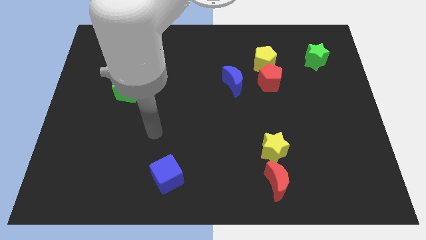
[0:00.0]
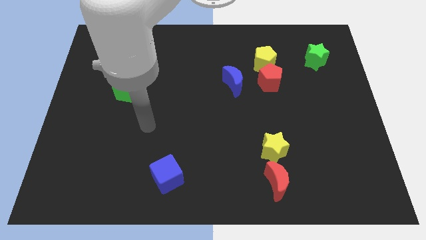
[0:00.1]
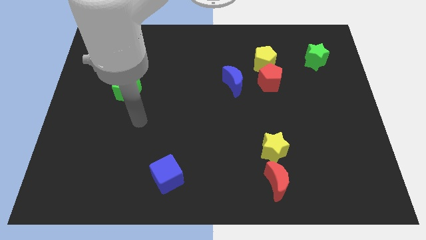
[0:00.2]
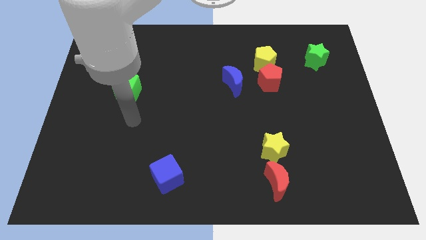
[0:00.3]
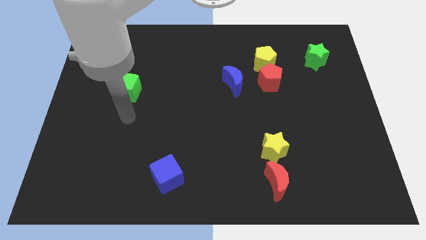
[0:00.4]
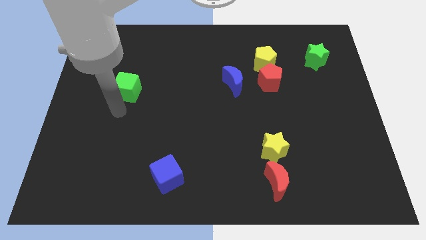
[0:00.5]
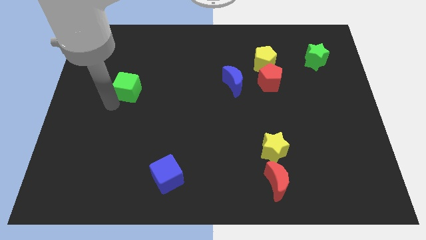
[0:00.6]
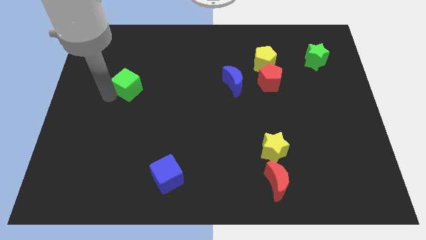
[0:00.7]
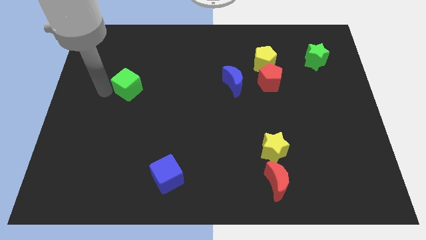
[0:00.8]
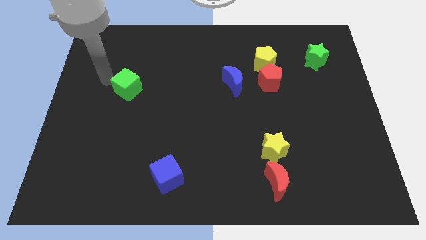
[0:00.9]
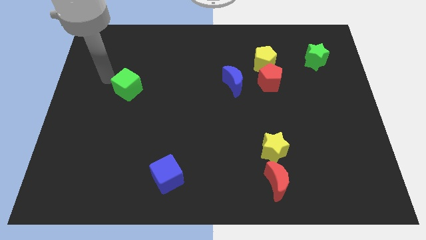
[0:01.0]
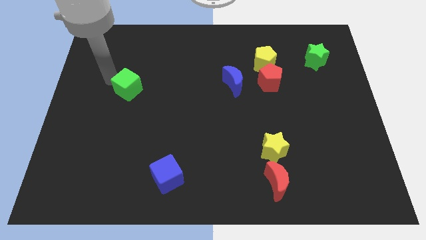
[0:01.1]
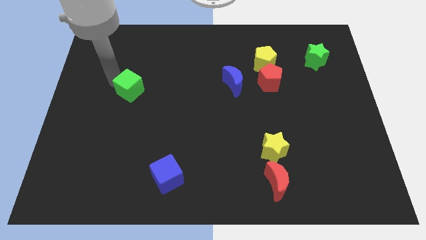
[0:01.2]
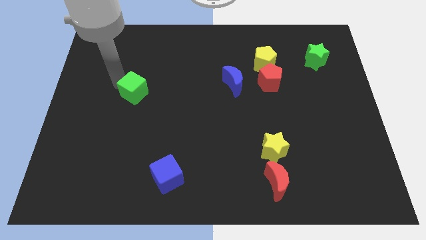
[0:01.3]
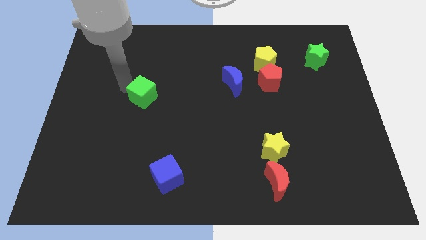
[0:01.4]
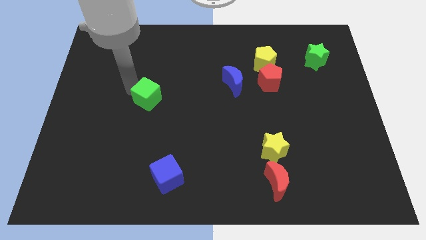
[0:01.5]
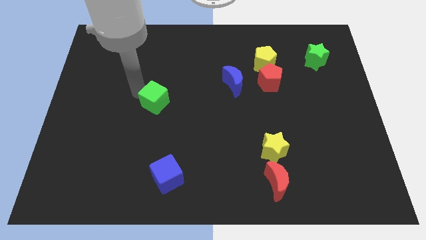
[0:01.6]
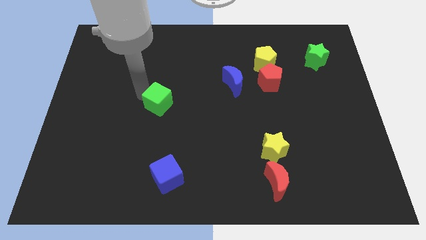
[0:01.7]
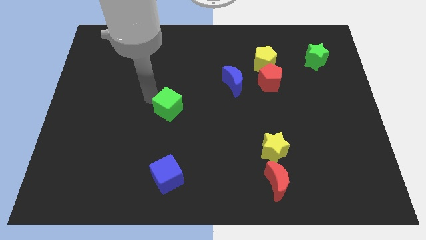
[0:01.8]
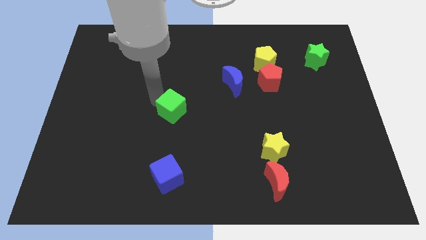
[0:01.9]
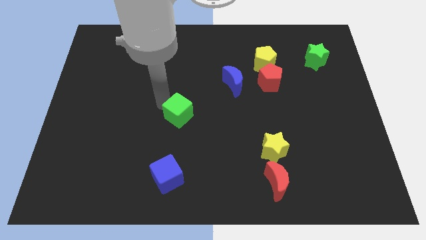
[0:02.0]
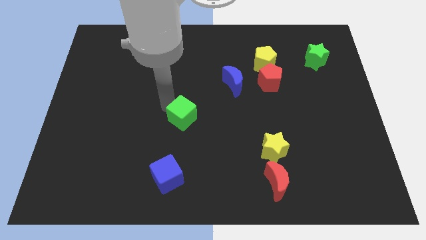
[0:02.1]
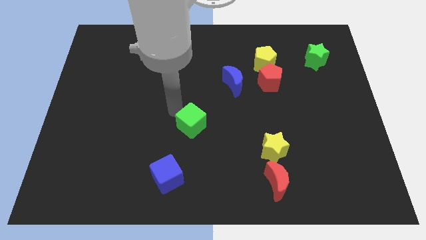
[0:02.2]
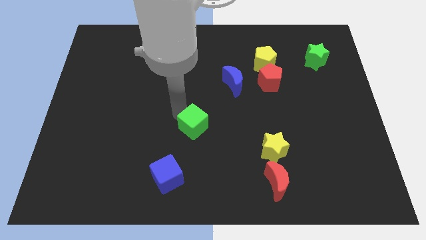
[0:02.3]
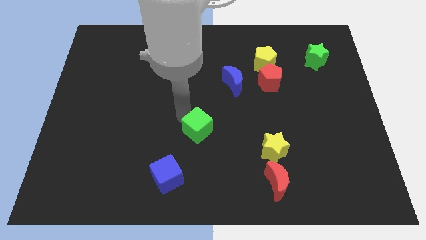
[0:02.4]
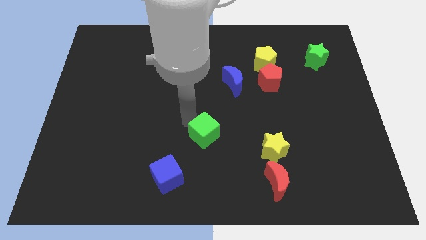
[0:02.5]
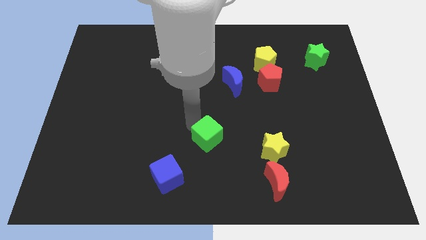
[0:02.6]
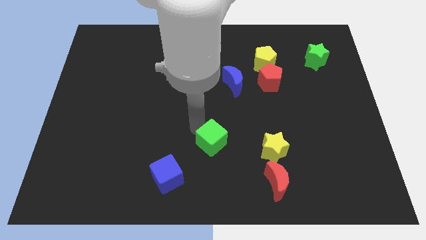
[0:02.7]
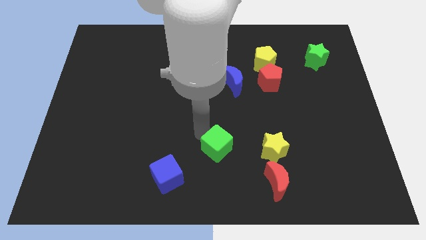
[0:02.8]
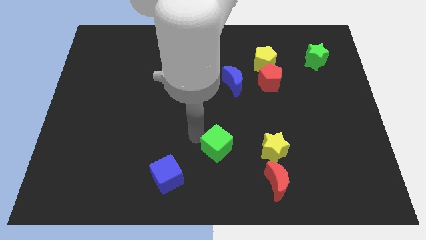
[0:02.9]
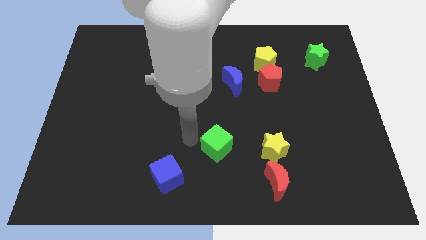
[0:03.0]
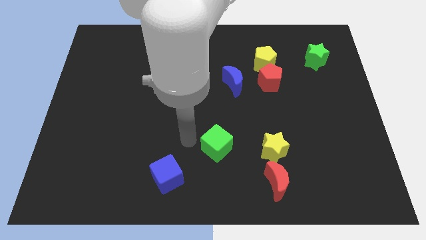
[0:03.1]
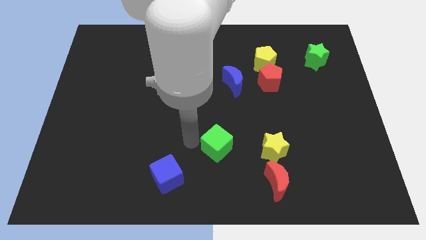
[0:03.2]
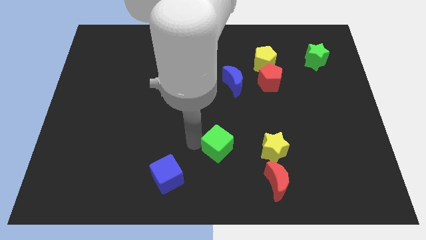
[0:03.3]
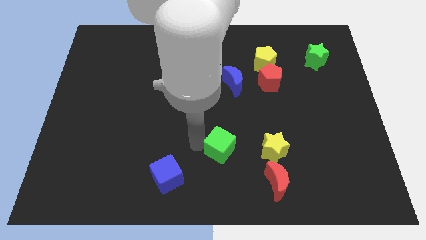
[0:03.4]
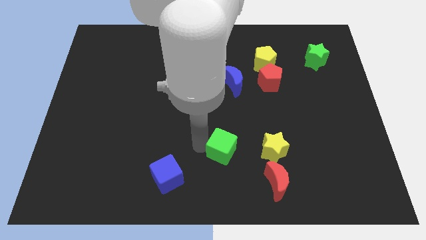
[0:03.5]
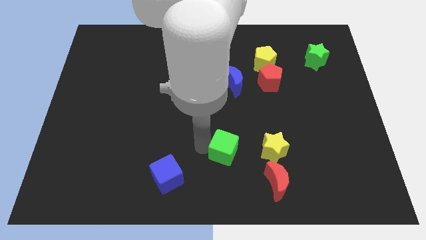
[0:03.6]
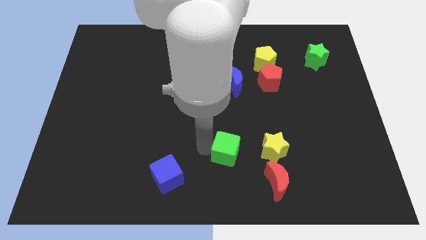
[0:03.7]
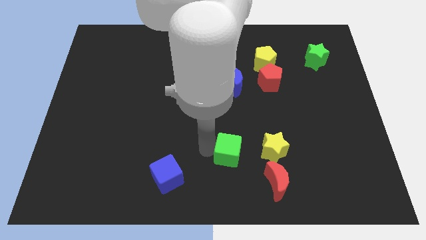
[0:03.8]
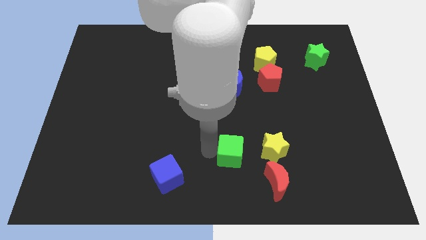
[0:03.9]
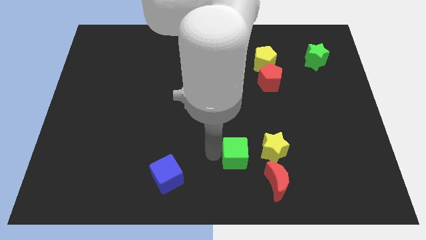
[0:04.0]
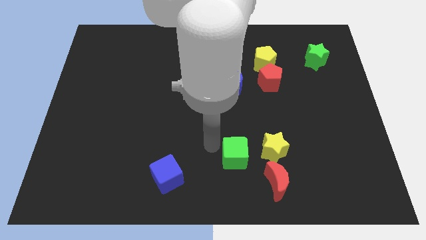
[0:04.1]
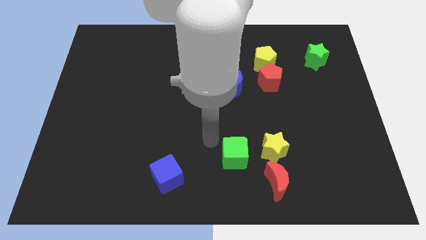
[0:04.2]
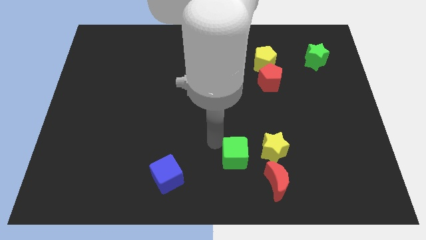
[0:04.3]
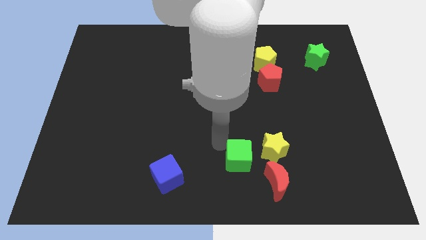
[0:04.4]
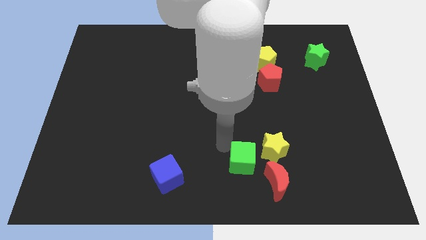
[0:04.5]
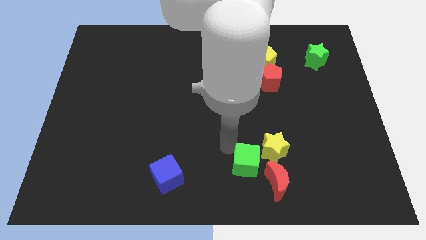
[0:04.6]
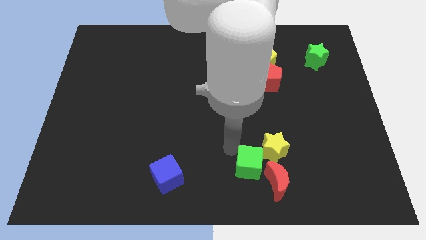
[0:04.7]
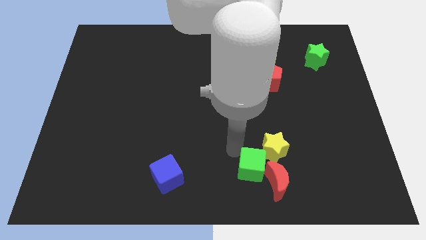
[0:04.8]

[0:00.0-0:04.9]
move the green cube next to the red moon

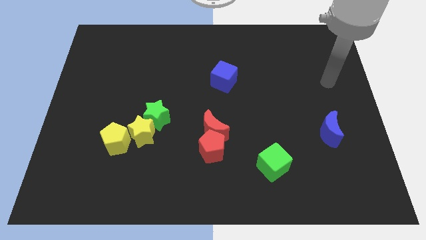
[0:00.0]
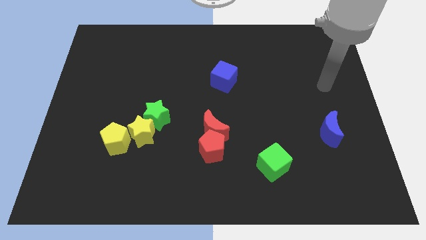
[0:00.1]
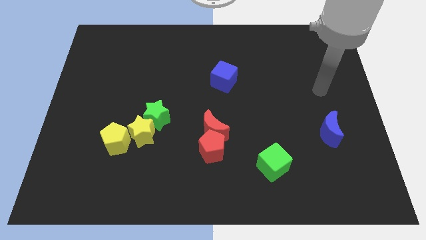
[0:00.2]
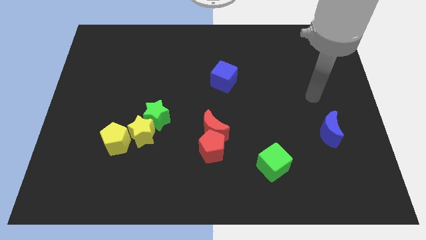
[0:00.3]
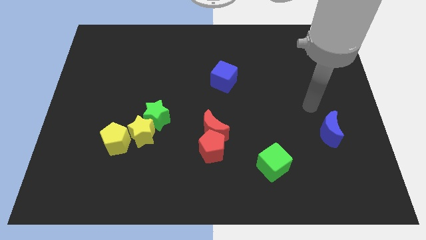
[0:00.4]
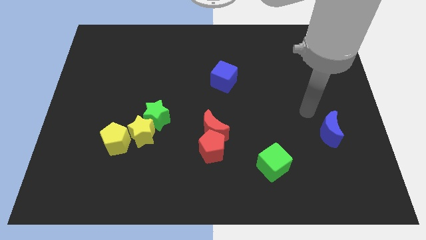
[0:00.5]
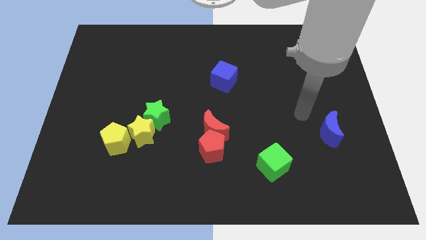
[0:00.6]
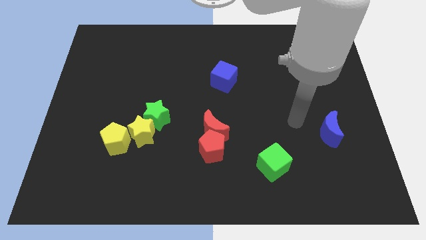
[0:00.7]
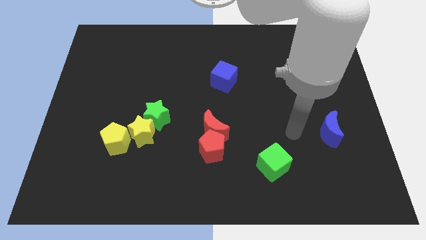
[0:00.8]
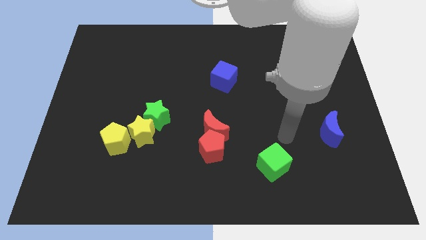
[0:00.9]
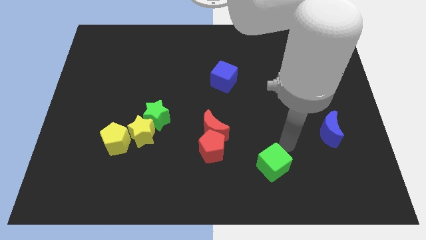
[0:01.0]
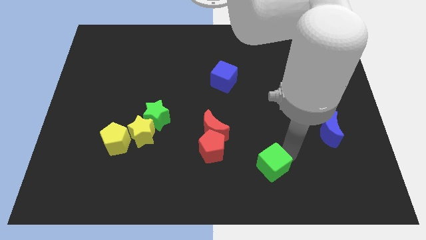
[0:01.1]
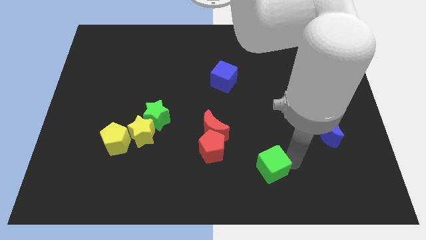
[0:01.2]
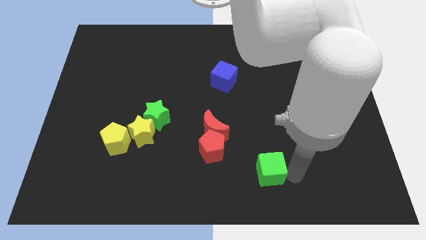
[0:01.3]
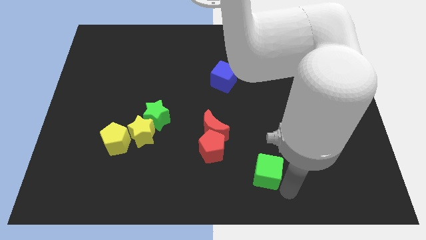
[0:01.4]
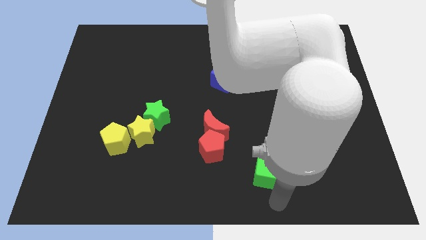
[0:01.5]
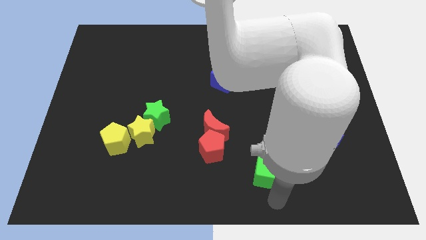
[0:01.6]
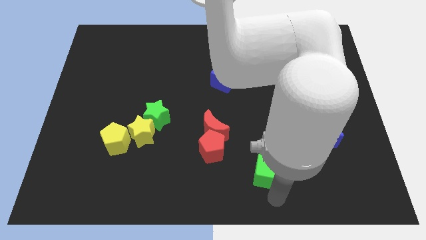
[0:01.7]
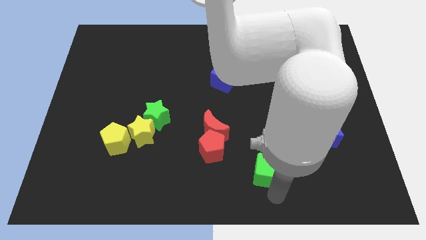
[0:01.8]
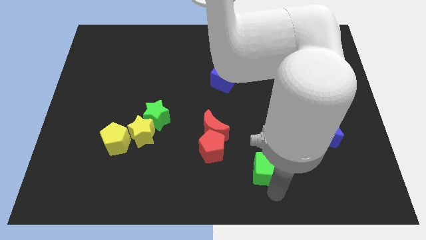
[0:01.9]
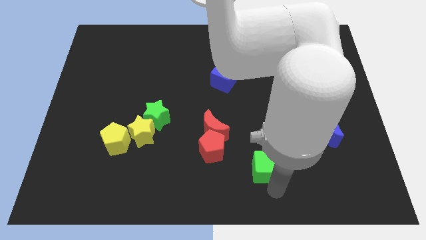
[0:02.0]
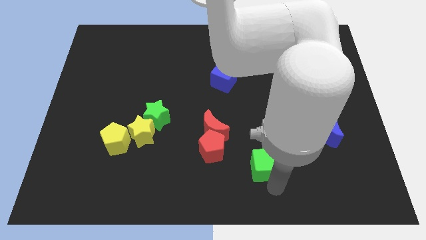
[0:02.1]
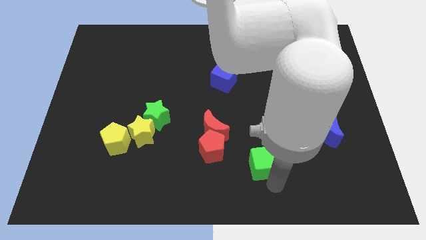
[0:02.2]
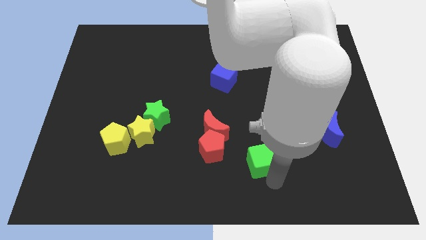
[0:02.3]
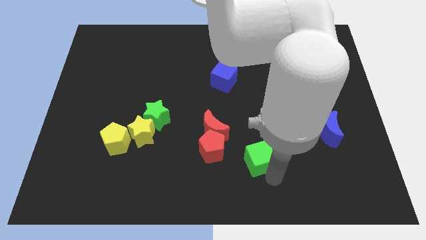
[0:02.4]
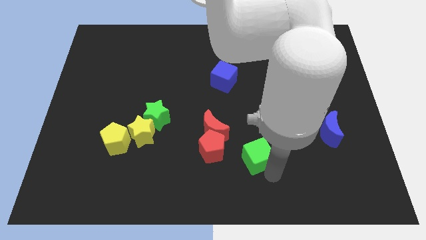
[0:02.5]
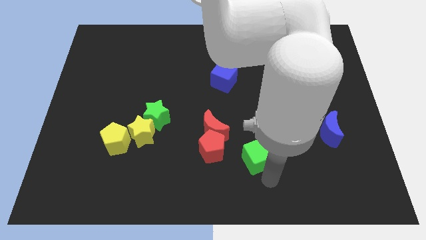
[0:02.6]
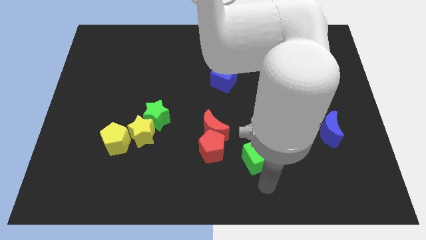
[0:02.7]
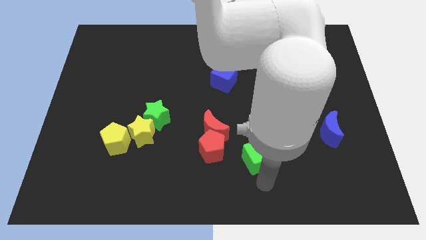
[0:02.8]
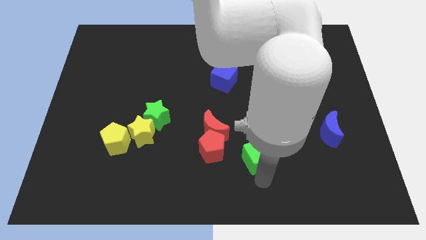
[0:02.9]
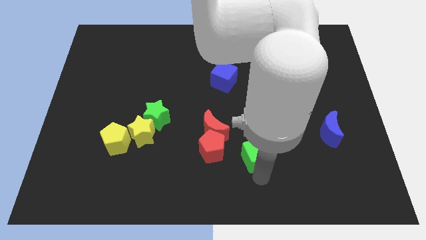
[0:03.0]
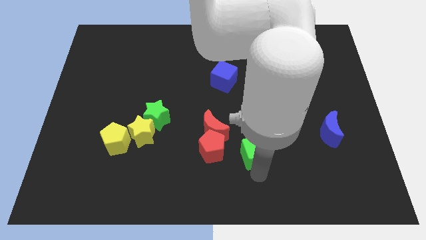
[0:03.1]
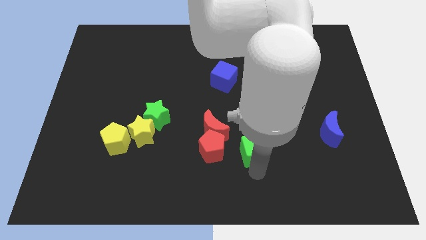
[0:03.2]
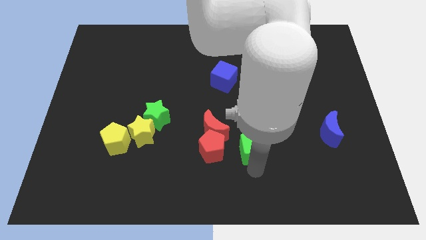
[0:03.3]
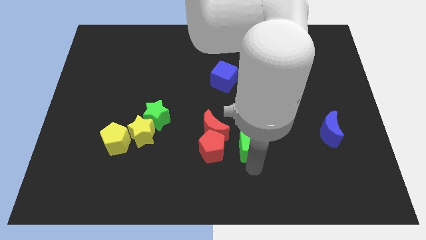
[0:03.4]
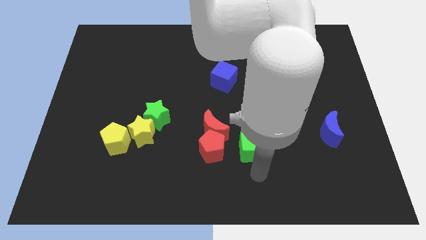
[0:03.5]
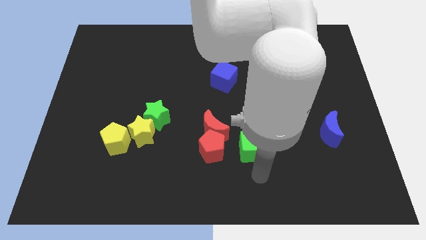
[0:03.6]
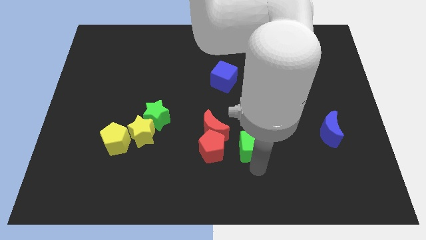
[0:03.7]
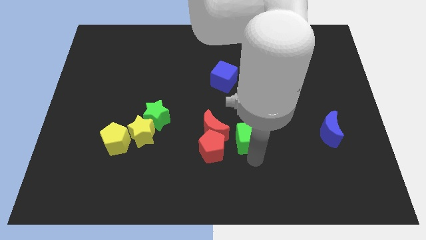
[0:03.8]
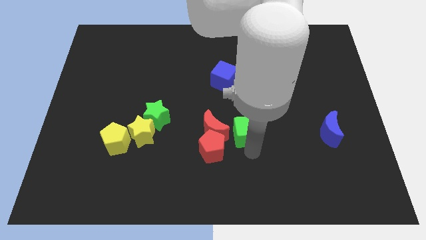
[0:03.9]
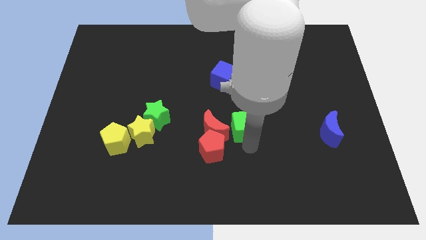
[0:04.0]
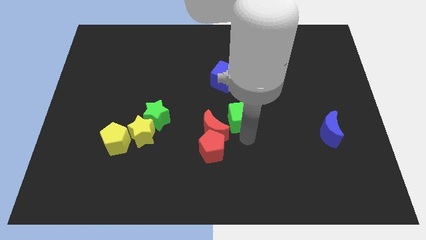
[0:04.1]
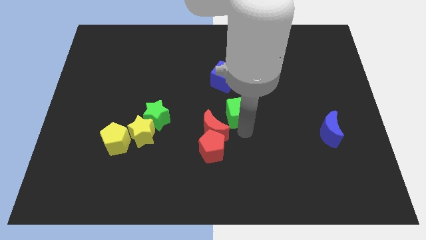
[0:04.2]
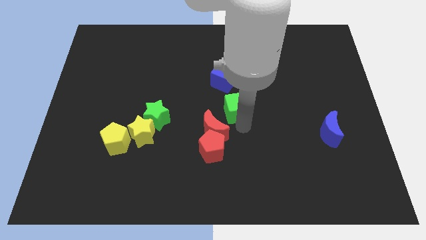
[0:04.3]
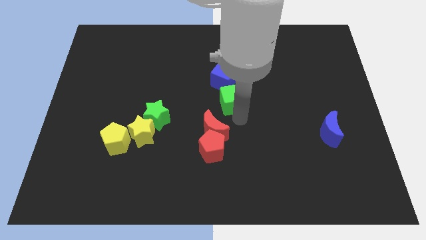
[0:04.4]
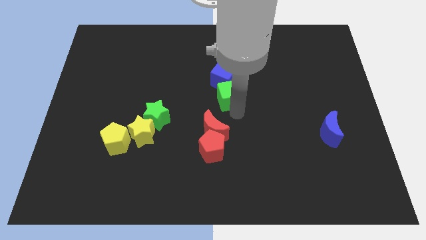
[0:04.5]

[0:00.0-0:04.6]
put the green cube close to the blue cube
